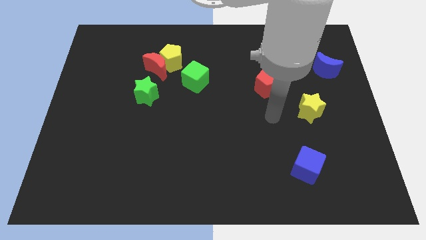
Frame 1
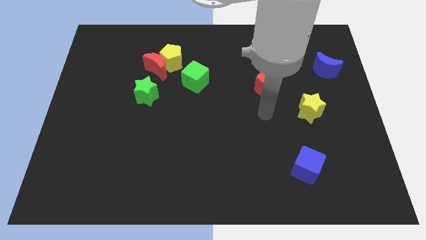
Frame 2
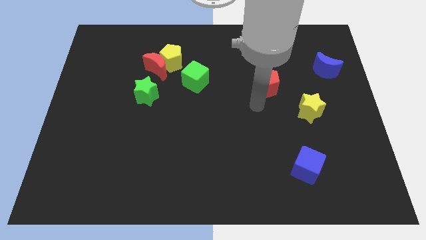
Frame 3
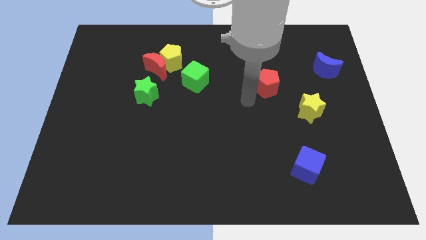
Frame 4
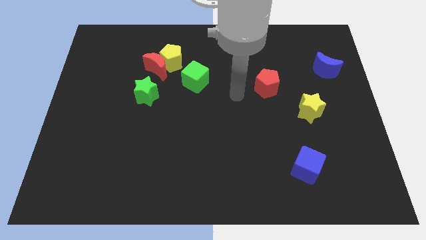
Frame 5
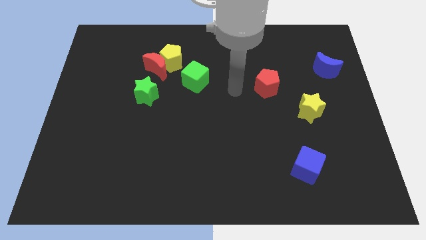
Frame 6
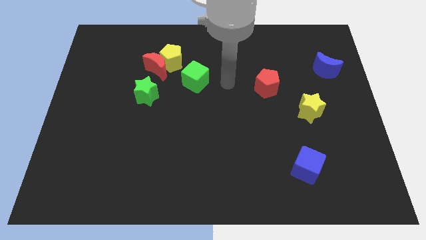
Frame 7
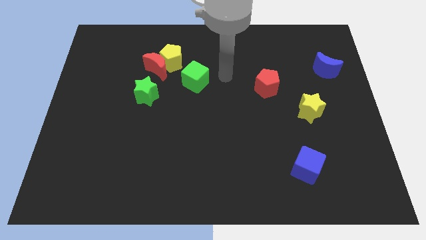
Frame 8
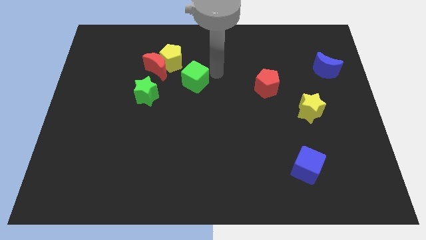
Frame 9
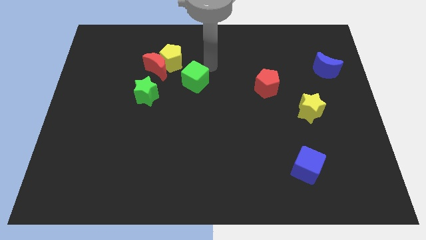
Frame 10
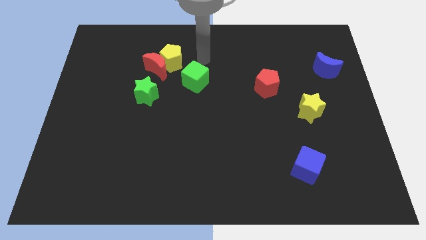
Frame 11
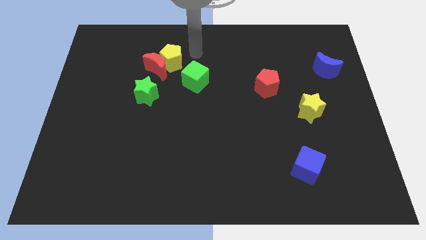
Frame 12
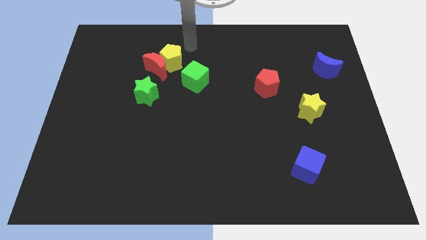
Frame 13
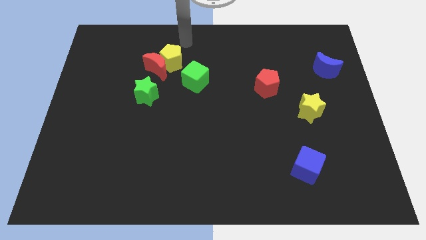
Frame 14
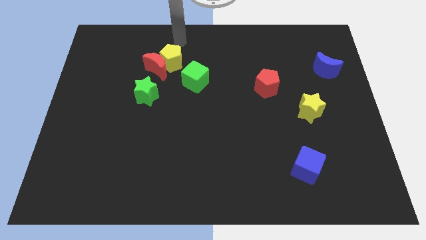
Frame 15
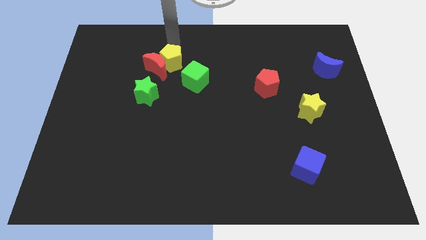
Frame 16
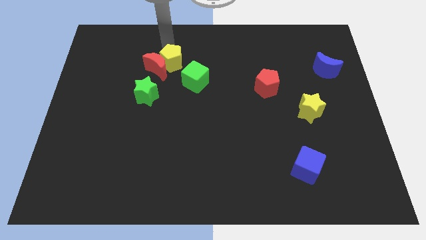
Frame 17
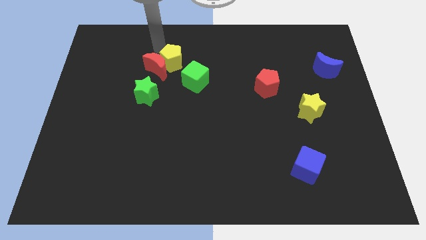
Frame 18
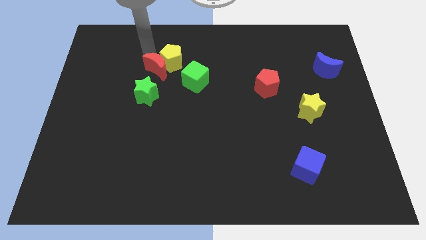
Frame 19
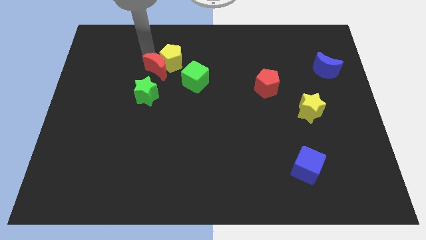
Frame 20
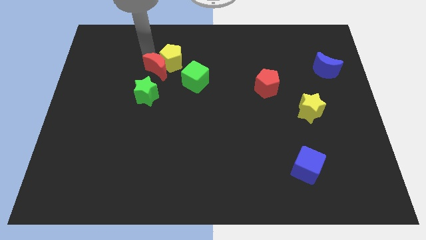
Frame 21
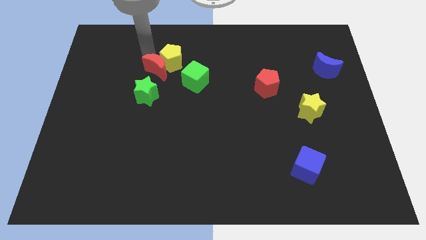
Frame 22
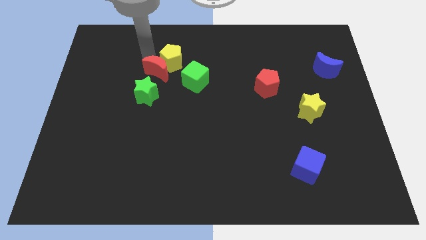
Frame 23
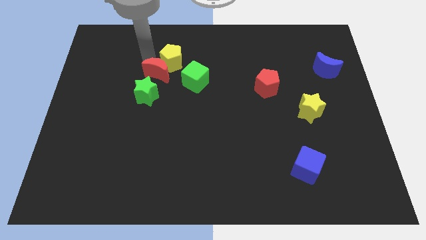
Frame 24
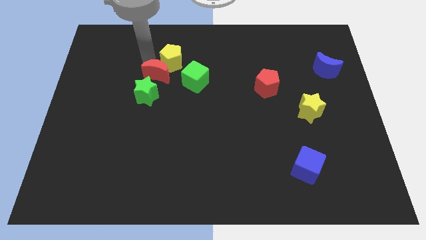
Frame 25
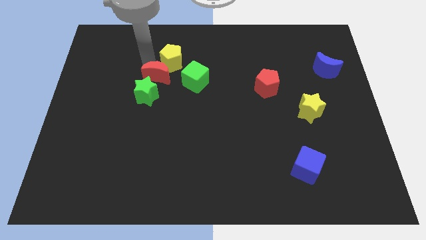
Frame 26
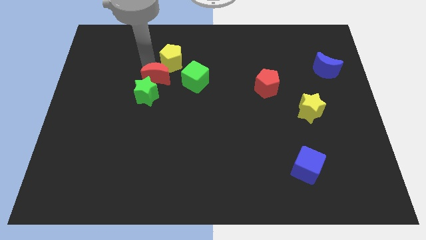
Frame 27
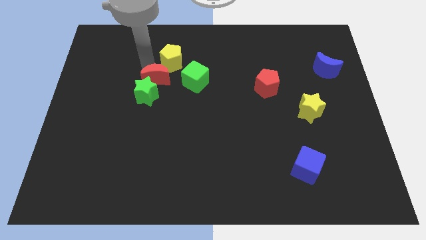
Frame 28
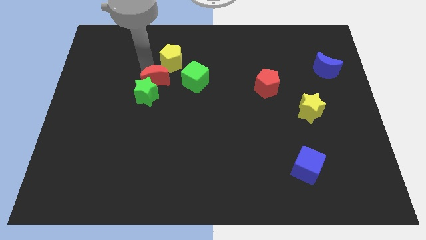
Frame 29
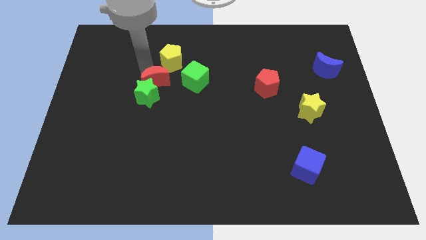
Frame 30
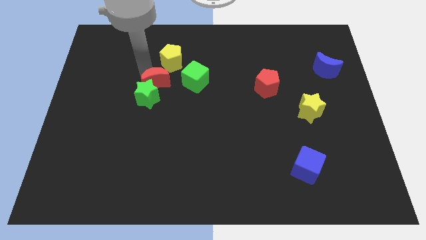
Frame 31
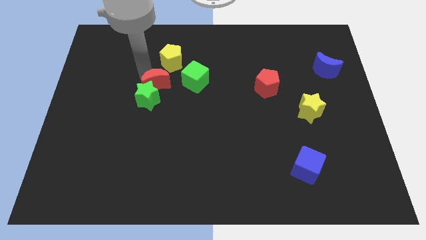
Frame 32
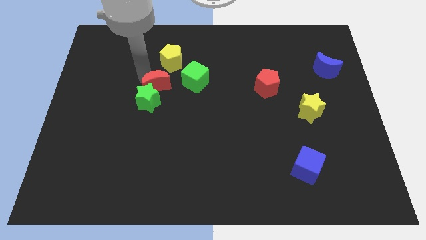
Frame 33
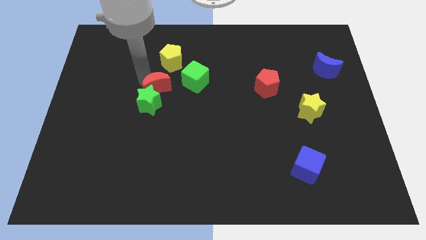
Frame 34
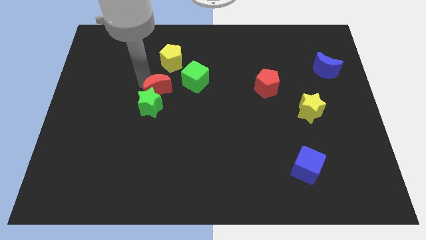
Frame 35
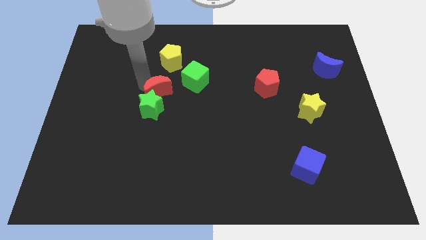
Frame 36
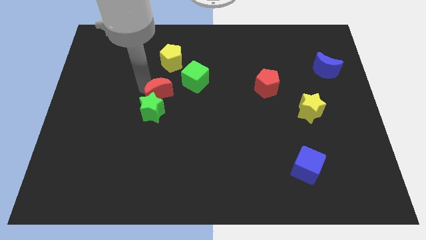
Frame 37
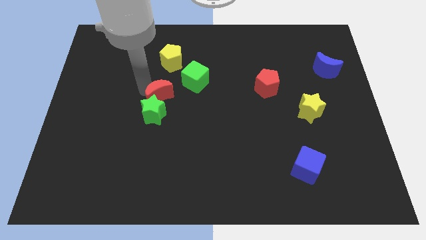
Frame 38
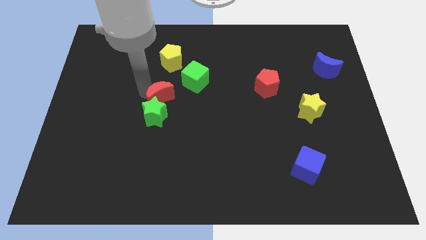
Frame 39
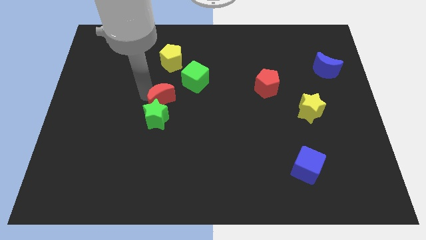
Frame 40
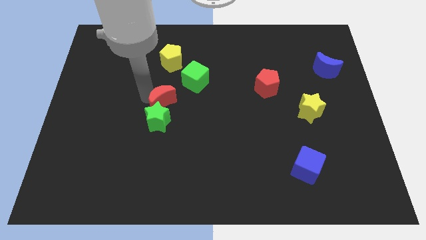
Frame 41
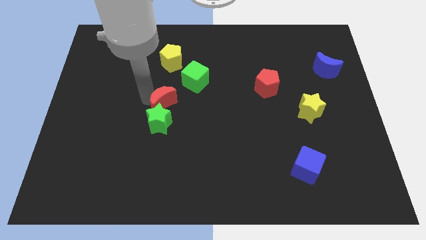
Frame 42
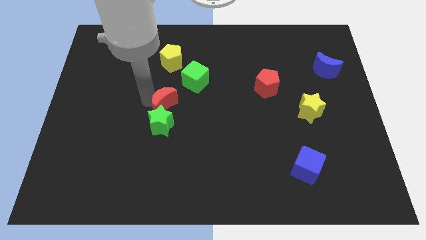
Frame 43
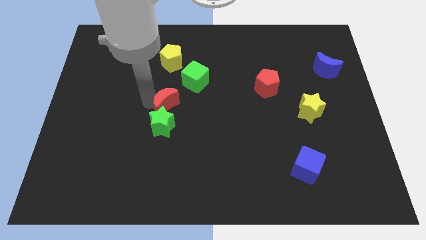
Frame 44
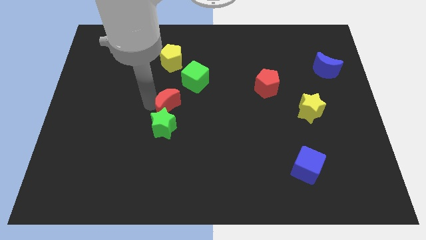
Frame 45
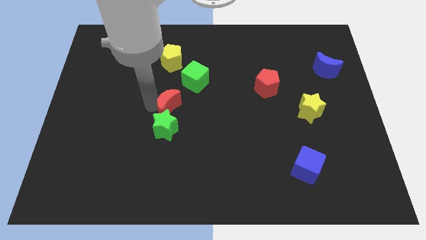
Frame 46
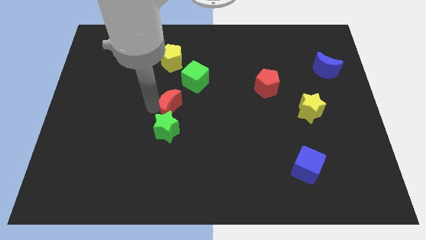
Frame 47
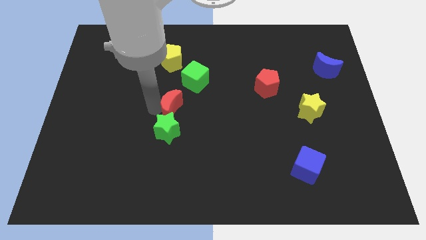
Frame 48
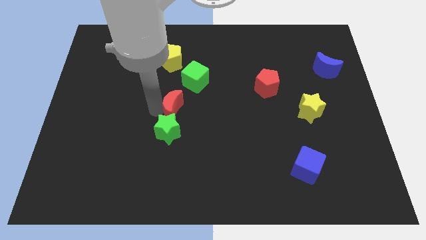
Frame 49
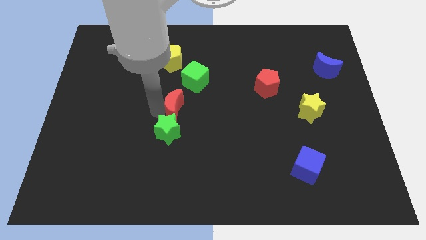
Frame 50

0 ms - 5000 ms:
put the red moon below the green cube

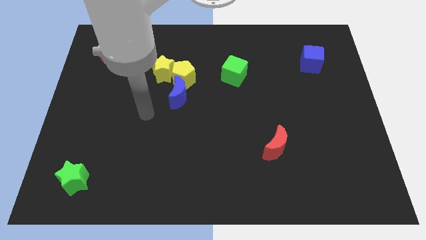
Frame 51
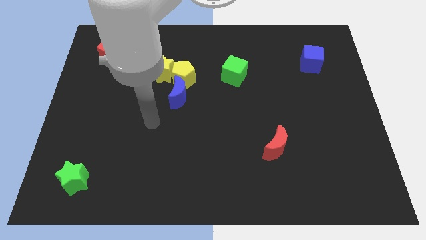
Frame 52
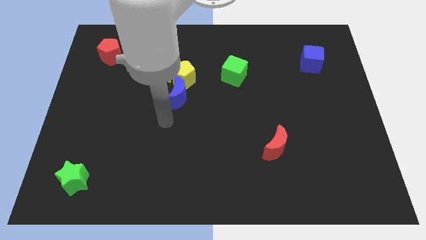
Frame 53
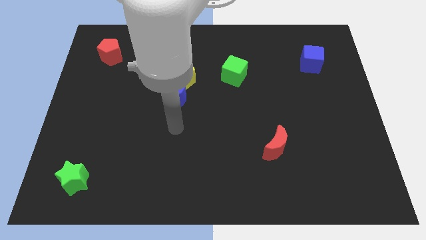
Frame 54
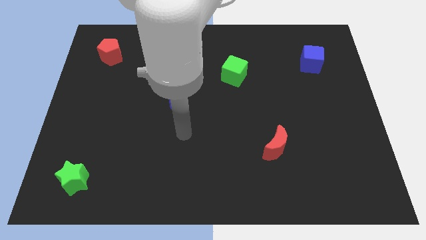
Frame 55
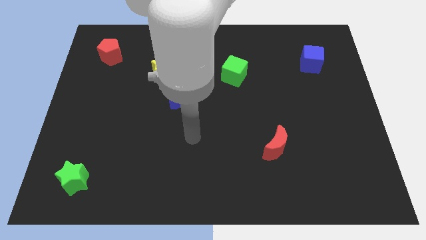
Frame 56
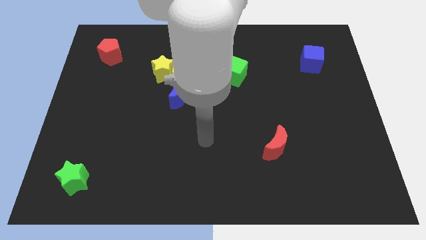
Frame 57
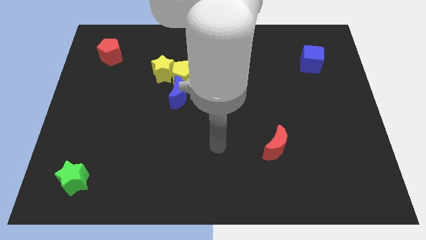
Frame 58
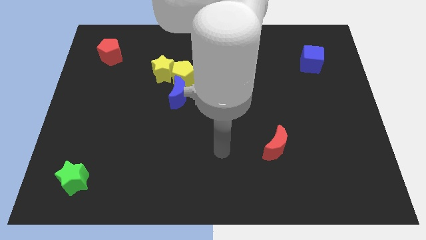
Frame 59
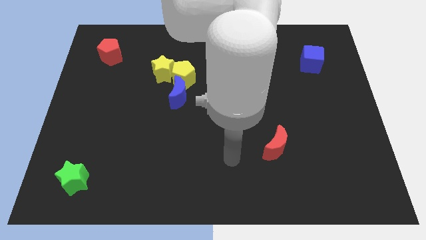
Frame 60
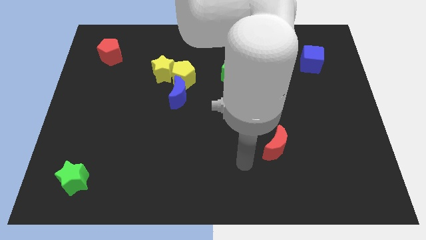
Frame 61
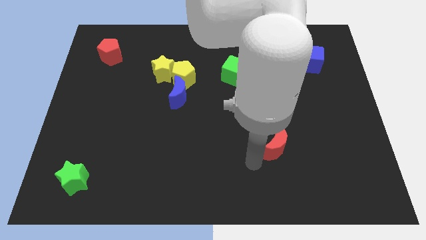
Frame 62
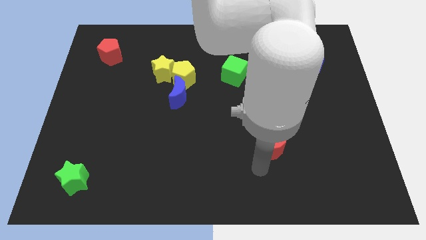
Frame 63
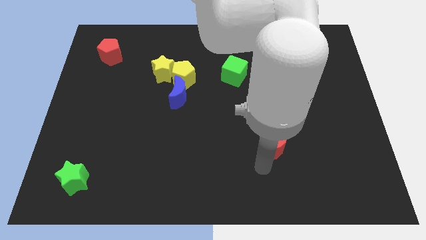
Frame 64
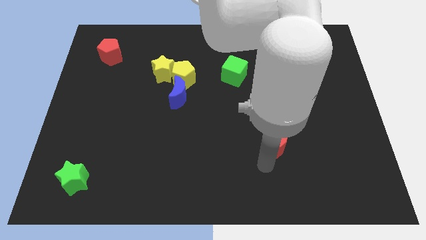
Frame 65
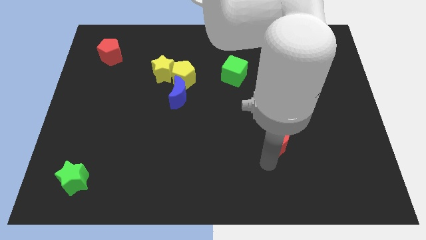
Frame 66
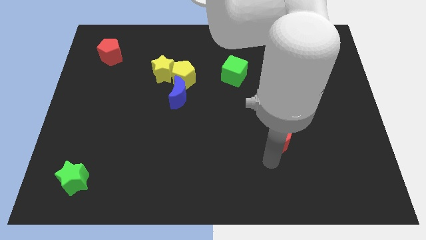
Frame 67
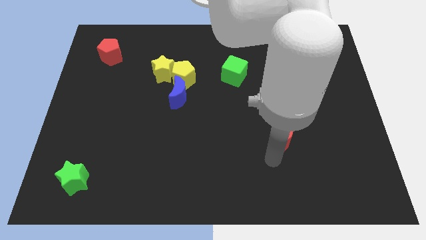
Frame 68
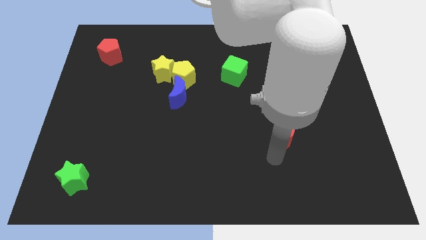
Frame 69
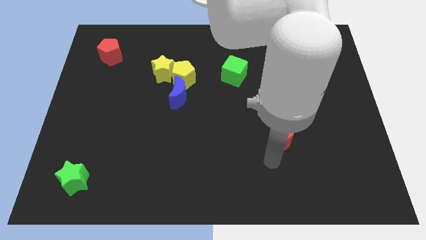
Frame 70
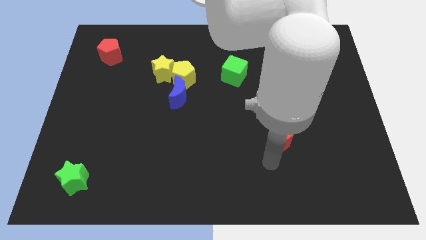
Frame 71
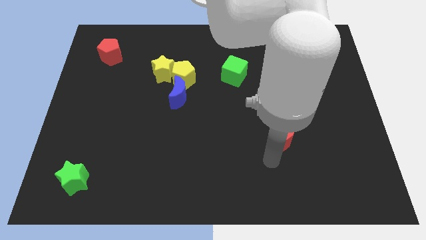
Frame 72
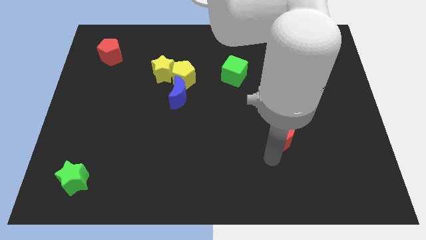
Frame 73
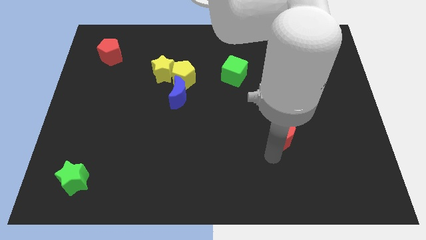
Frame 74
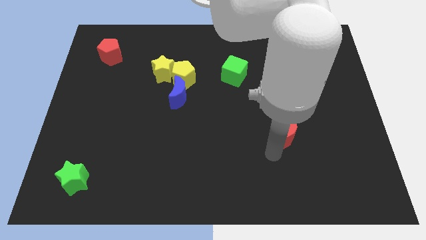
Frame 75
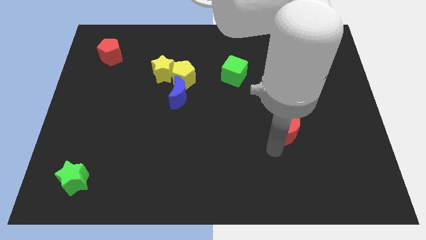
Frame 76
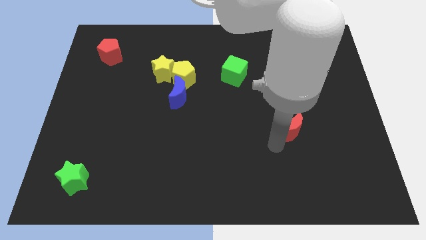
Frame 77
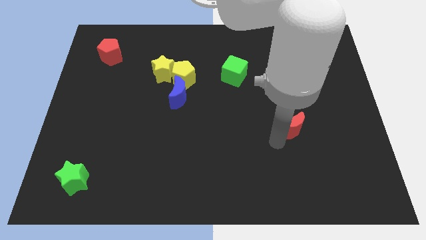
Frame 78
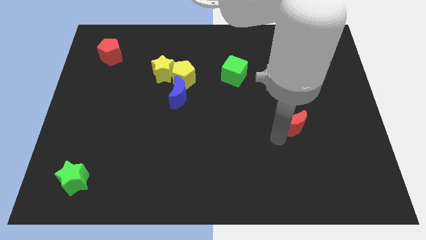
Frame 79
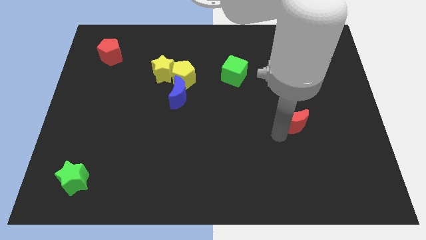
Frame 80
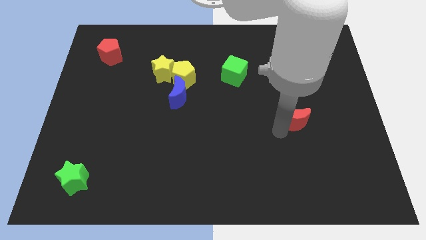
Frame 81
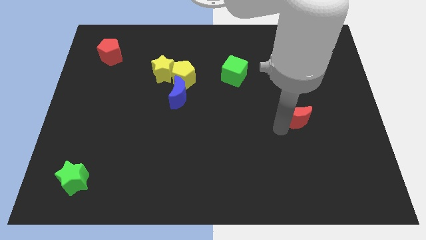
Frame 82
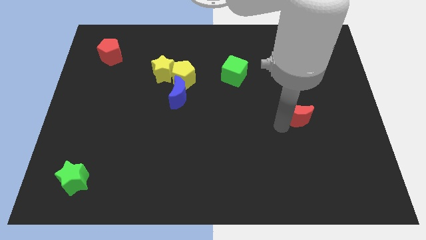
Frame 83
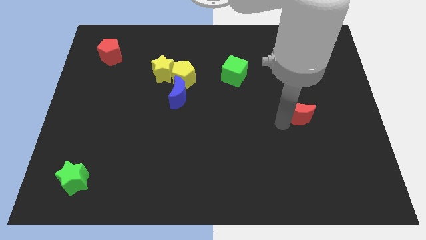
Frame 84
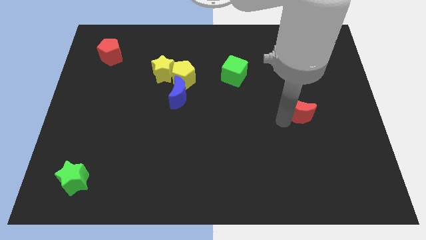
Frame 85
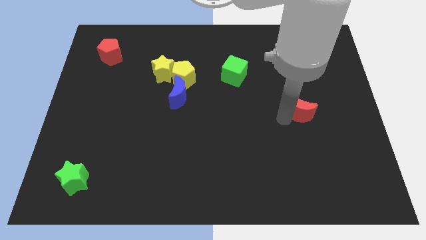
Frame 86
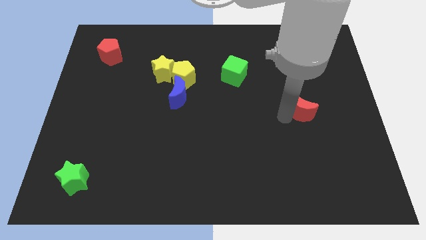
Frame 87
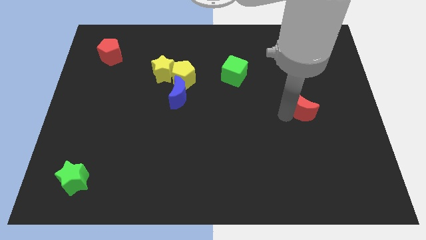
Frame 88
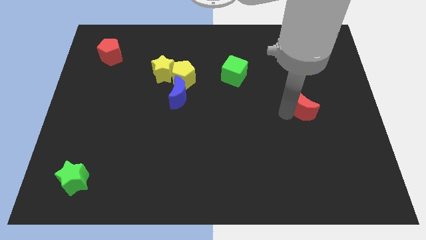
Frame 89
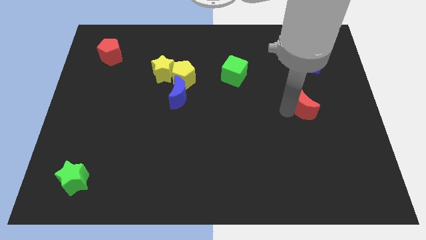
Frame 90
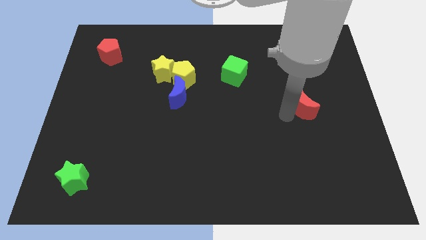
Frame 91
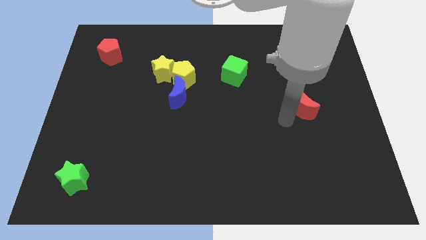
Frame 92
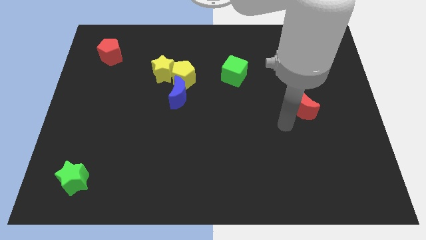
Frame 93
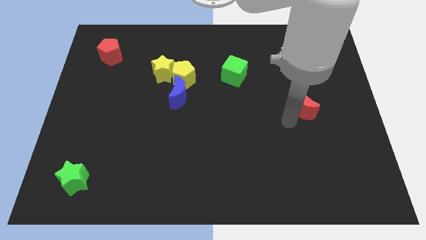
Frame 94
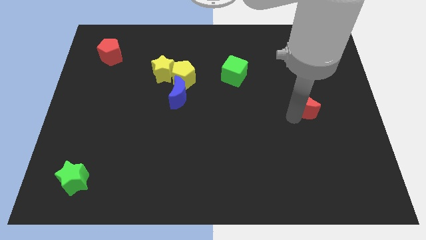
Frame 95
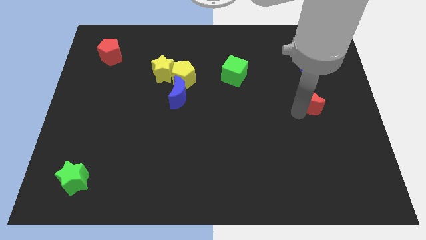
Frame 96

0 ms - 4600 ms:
slide the red moon below the blue cube
